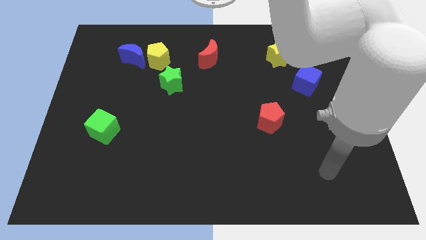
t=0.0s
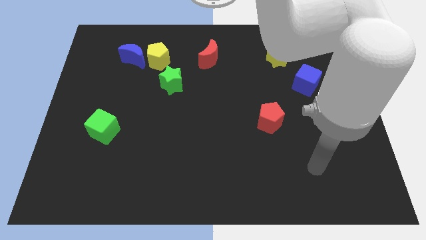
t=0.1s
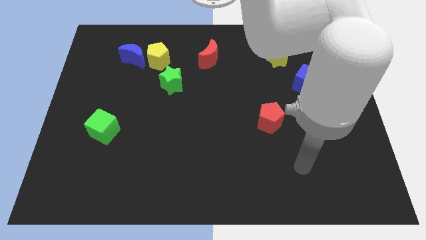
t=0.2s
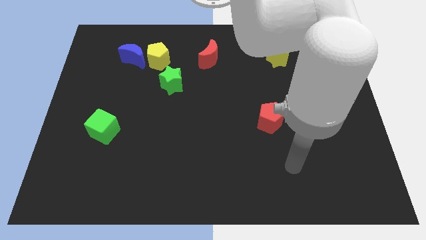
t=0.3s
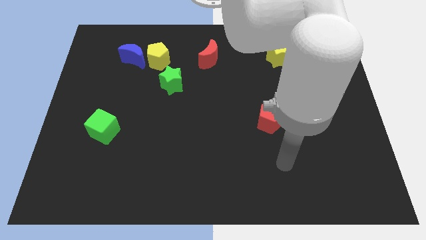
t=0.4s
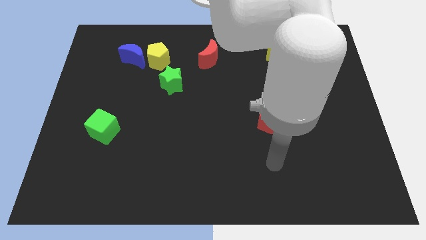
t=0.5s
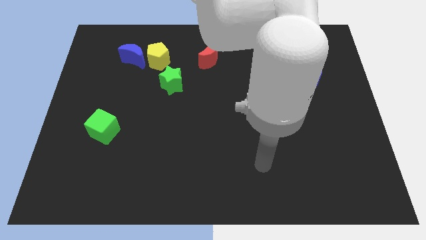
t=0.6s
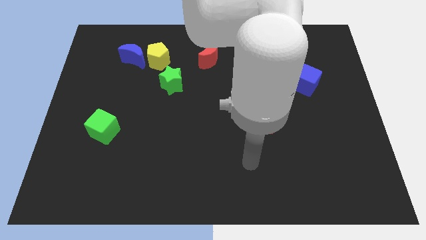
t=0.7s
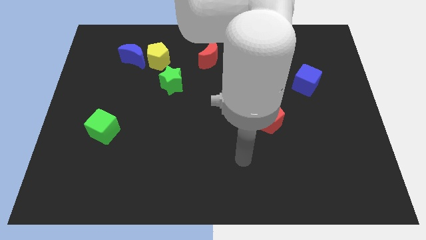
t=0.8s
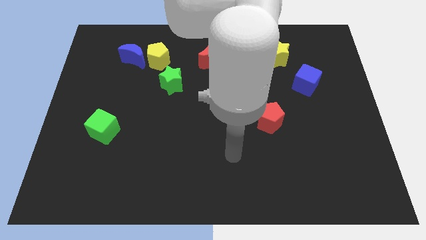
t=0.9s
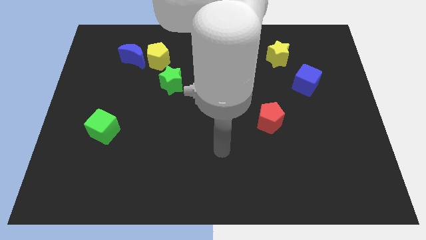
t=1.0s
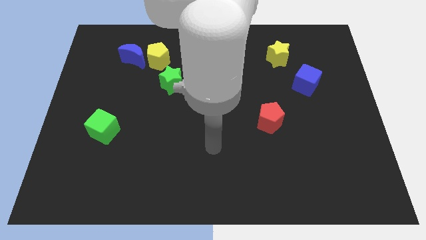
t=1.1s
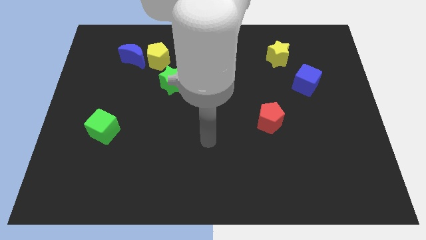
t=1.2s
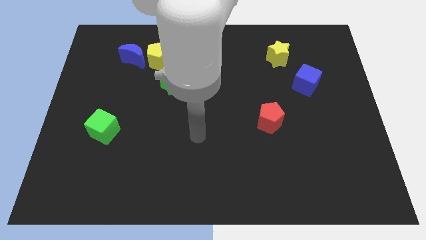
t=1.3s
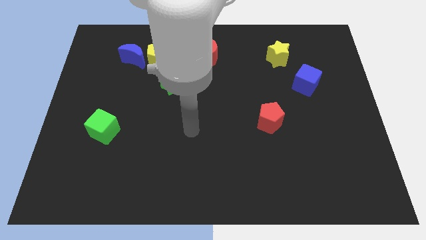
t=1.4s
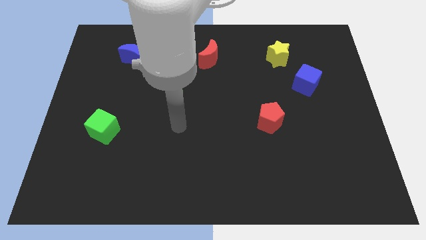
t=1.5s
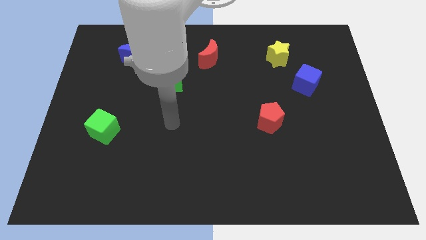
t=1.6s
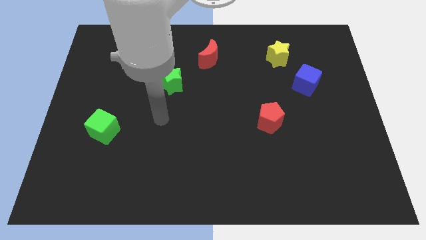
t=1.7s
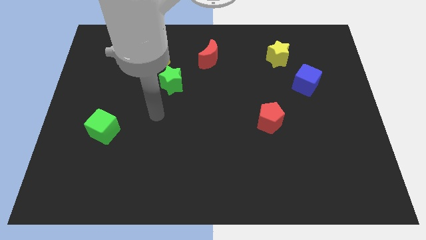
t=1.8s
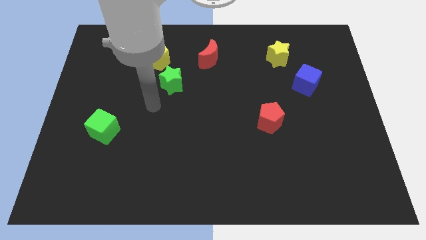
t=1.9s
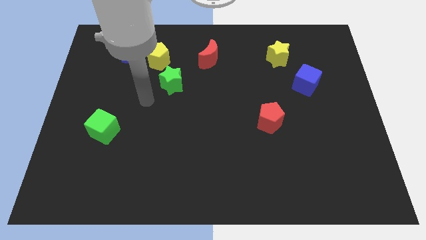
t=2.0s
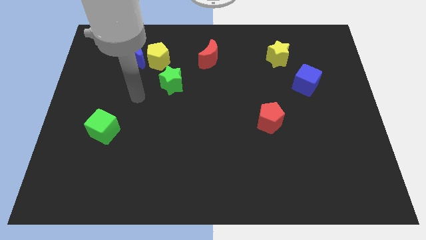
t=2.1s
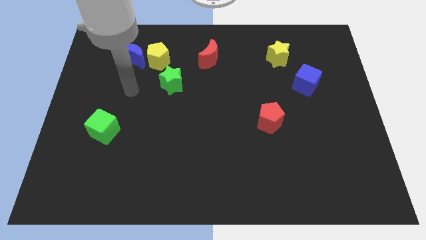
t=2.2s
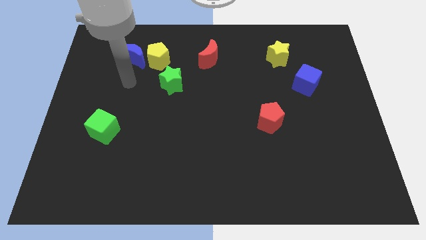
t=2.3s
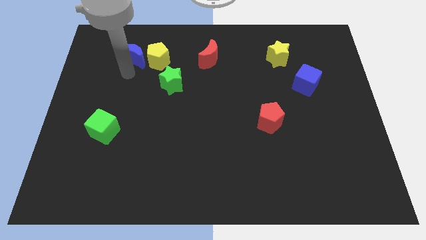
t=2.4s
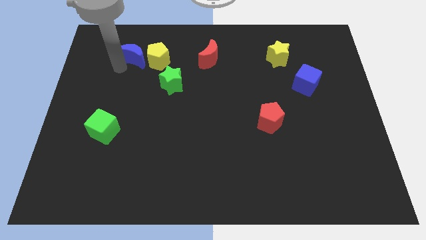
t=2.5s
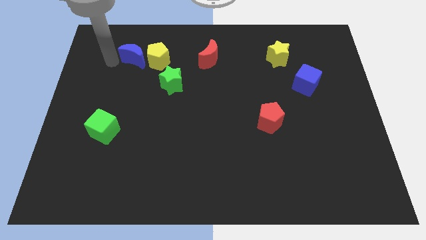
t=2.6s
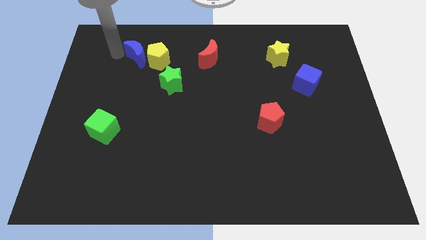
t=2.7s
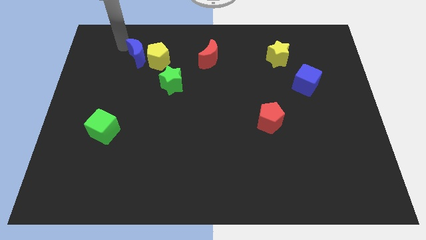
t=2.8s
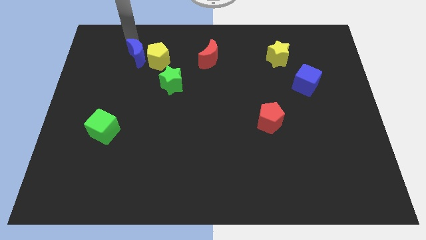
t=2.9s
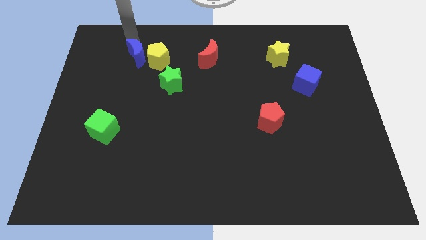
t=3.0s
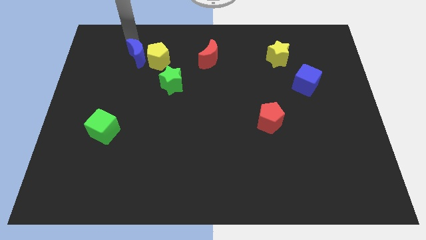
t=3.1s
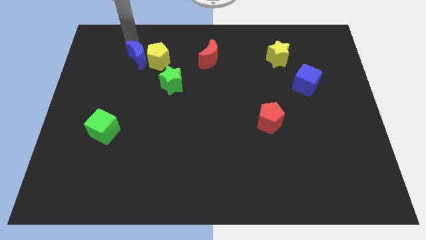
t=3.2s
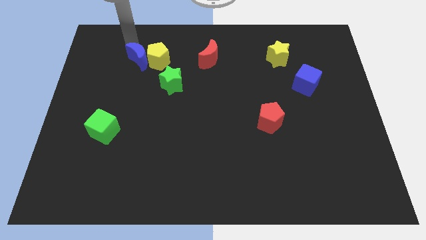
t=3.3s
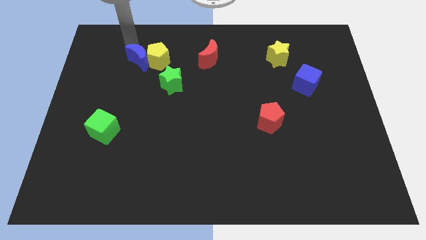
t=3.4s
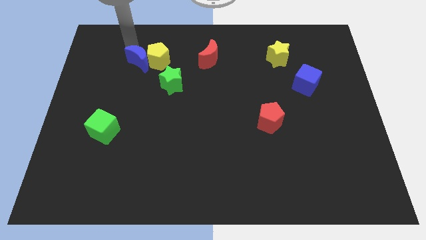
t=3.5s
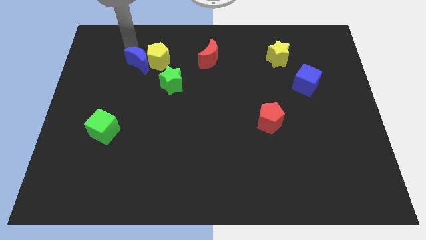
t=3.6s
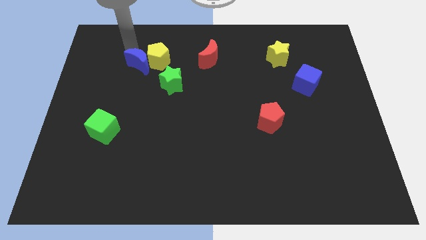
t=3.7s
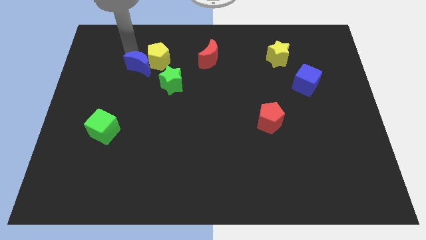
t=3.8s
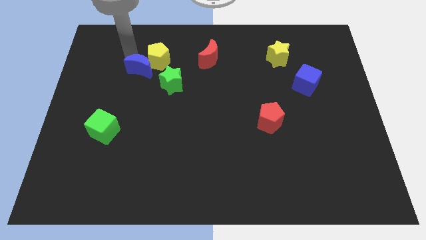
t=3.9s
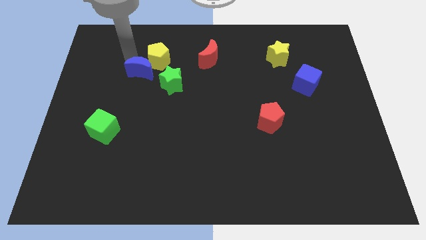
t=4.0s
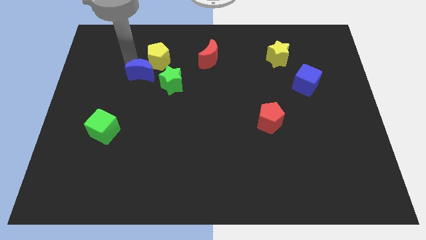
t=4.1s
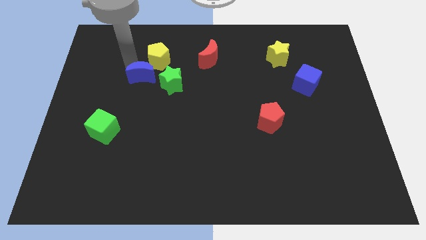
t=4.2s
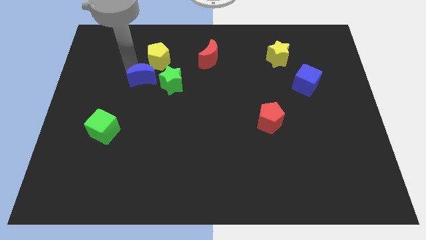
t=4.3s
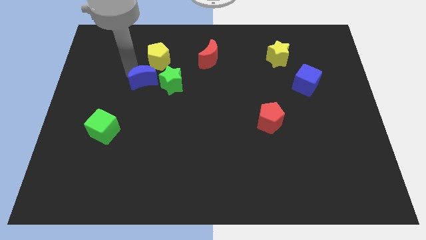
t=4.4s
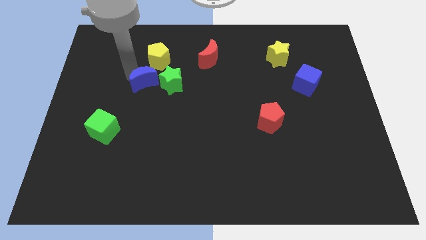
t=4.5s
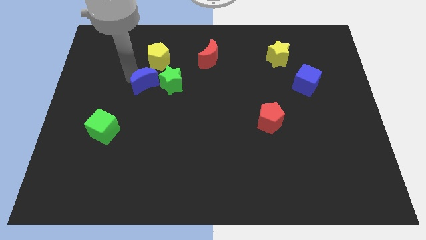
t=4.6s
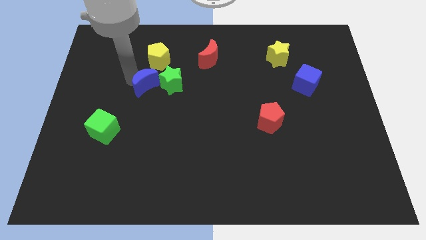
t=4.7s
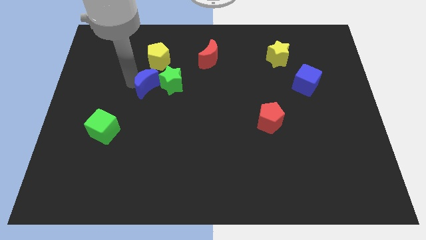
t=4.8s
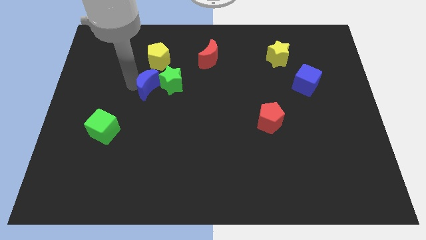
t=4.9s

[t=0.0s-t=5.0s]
slide the blue moon close to the green star

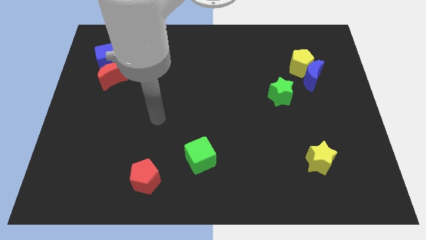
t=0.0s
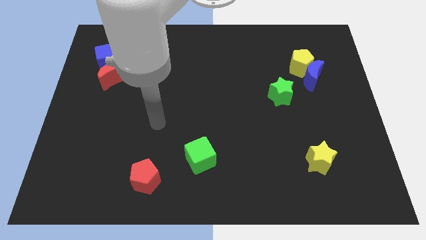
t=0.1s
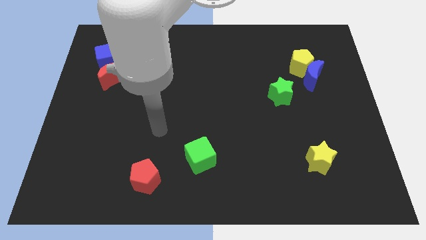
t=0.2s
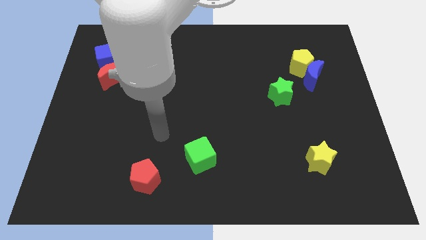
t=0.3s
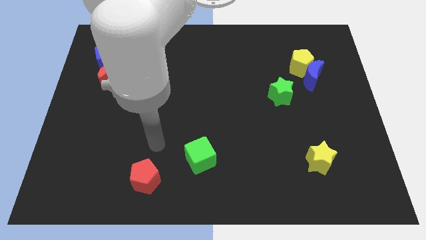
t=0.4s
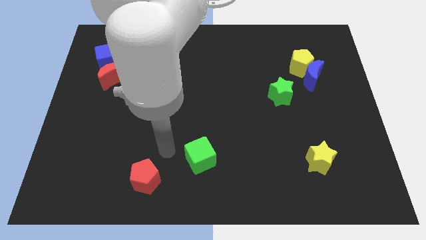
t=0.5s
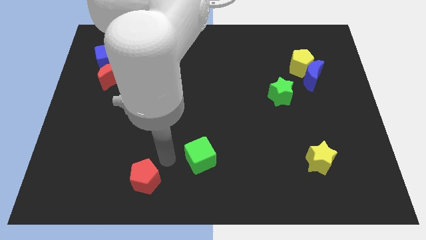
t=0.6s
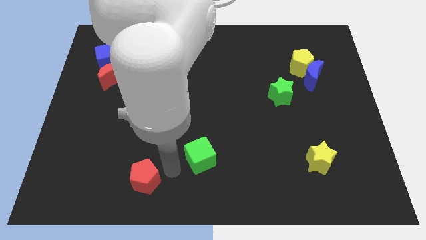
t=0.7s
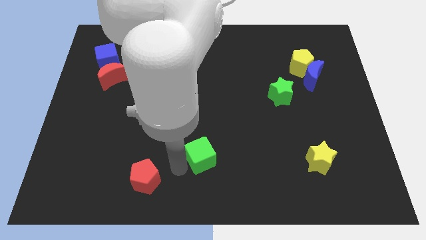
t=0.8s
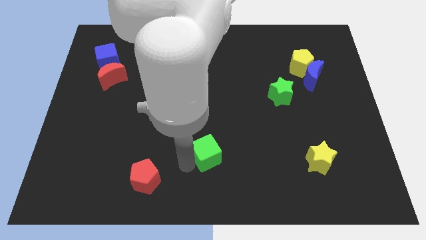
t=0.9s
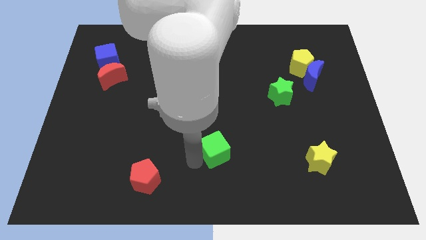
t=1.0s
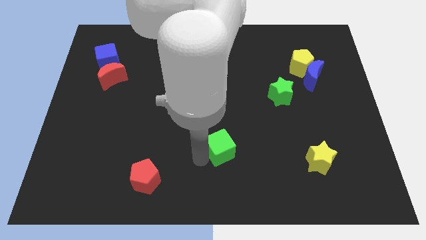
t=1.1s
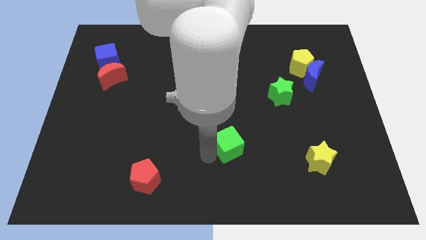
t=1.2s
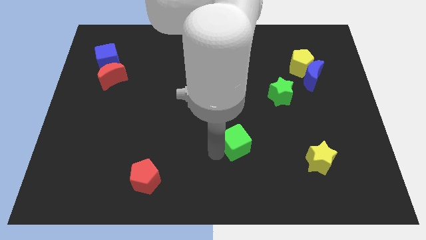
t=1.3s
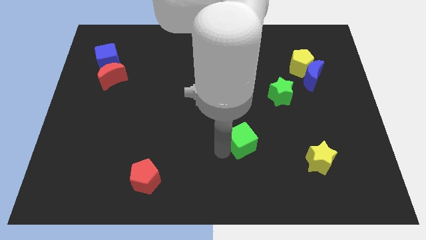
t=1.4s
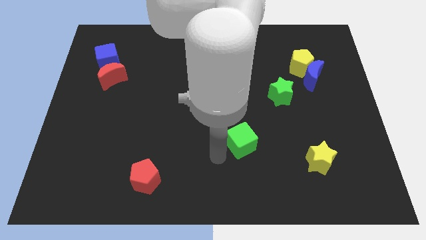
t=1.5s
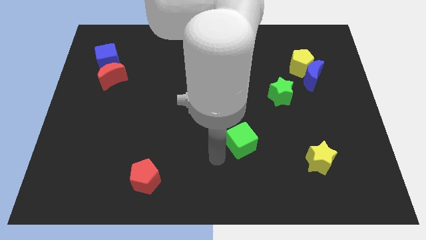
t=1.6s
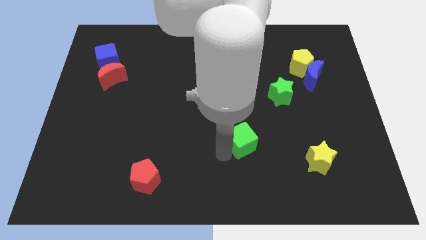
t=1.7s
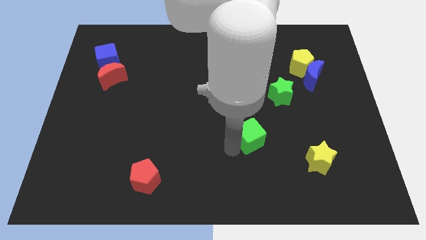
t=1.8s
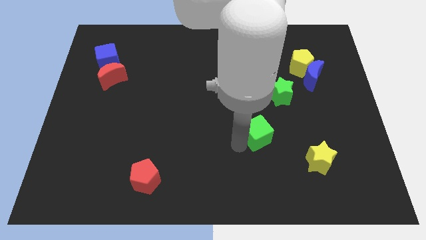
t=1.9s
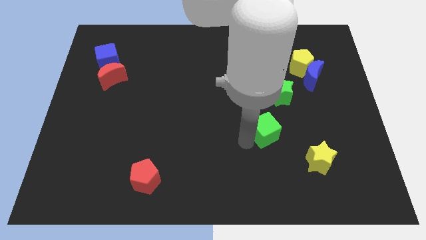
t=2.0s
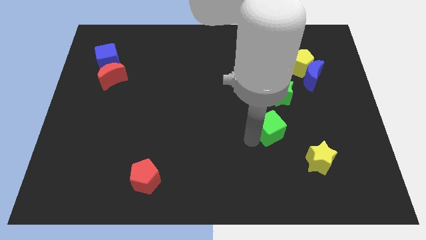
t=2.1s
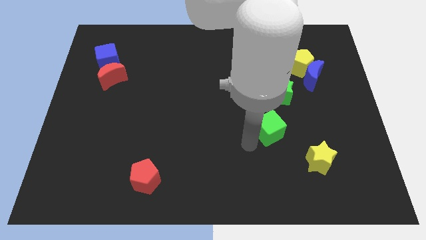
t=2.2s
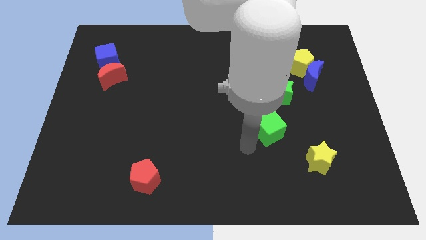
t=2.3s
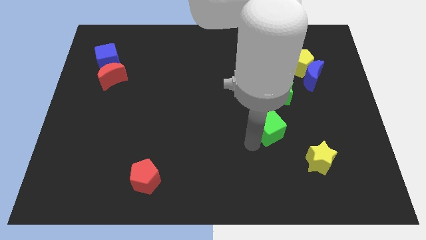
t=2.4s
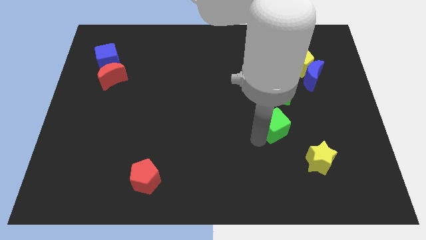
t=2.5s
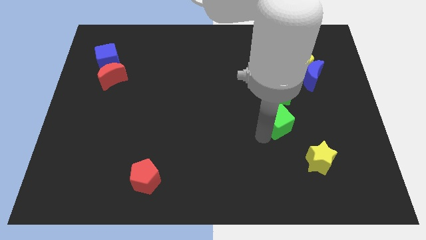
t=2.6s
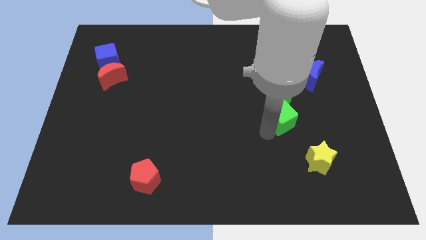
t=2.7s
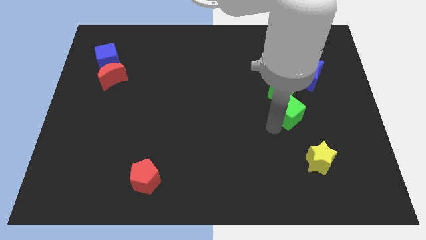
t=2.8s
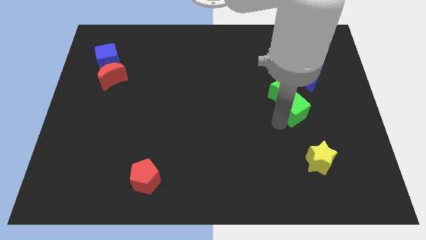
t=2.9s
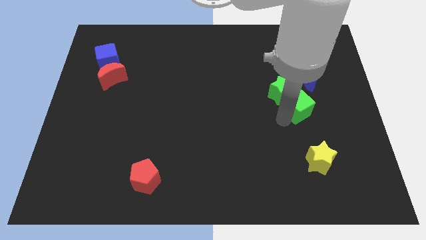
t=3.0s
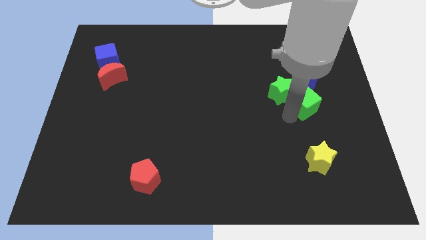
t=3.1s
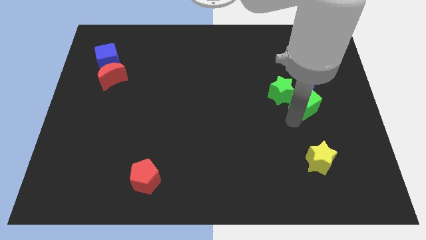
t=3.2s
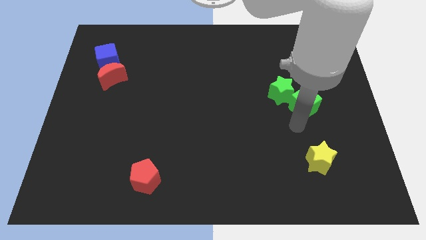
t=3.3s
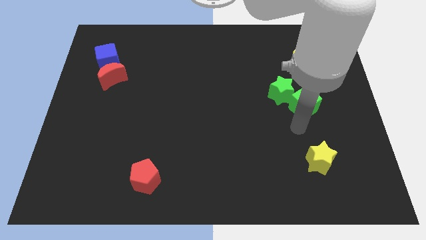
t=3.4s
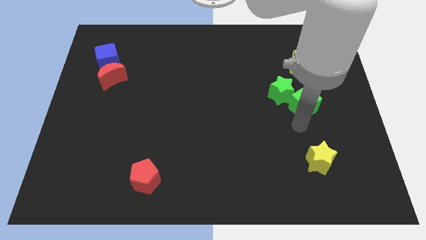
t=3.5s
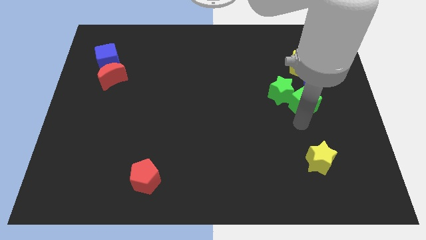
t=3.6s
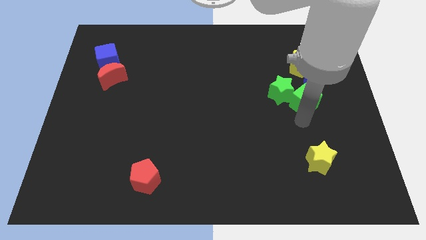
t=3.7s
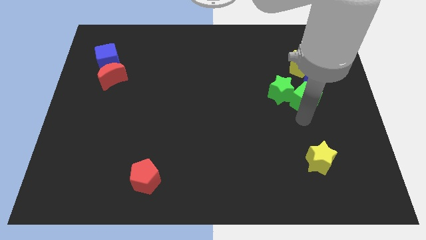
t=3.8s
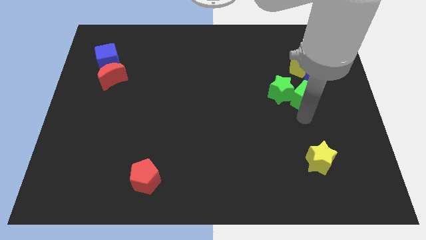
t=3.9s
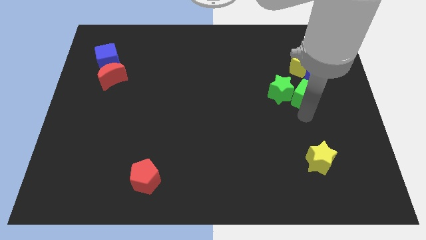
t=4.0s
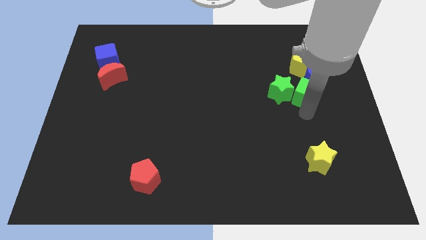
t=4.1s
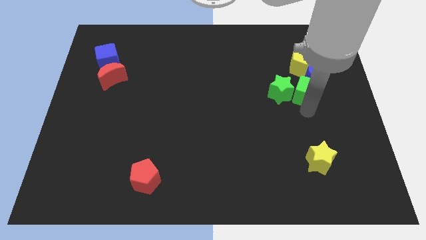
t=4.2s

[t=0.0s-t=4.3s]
move the green cube towards the blue moon
